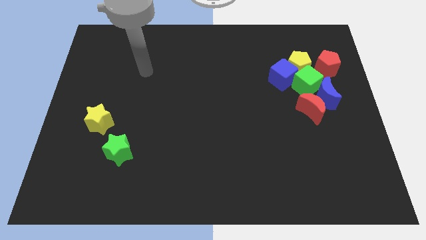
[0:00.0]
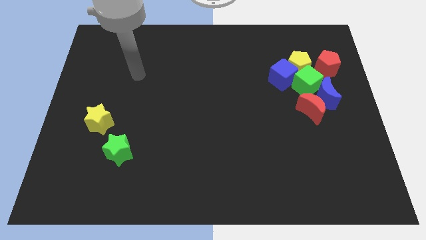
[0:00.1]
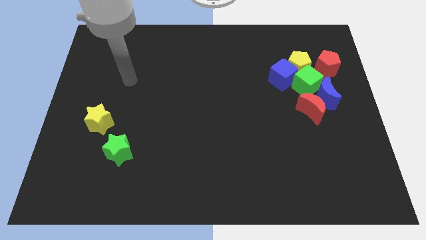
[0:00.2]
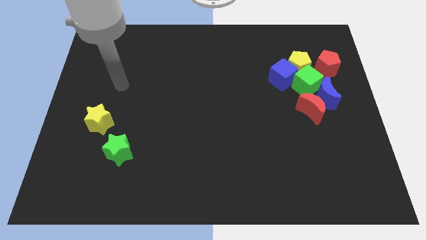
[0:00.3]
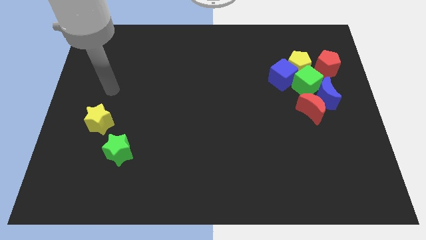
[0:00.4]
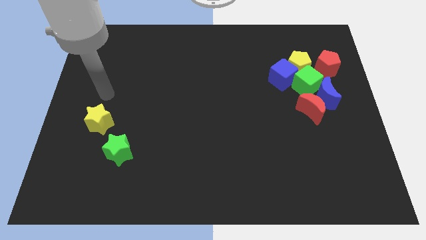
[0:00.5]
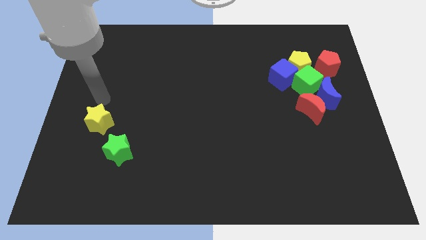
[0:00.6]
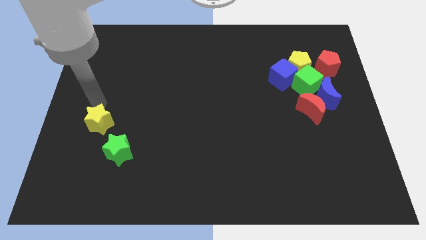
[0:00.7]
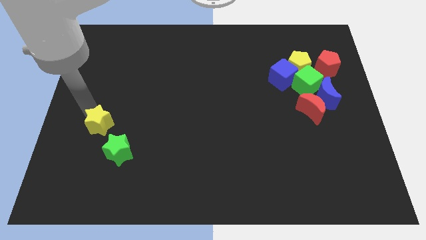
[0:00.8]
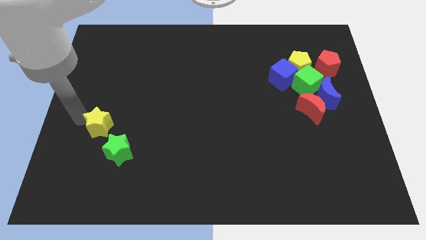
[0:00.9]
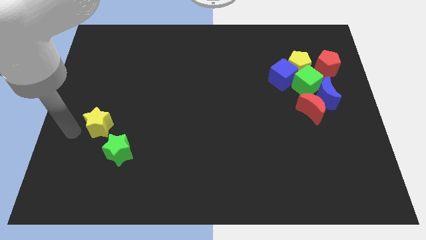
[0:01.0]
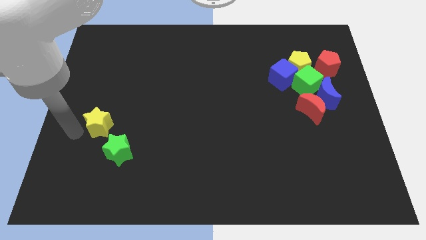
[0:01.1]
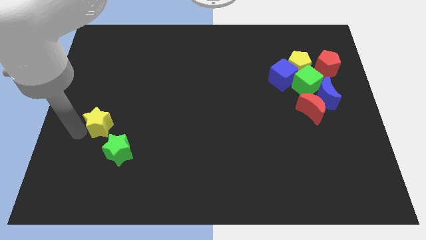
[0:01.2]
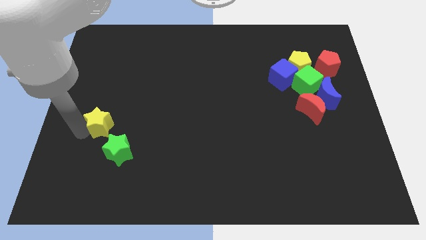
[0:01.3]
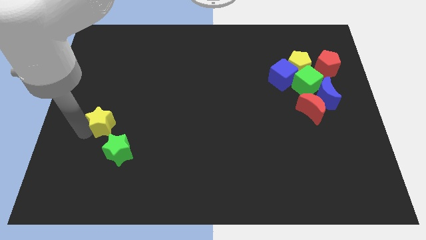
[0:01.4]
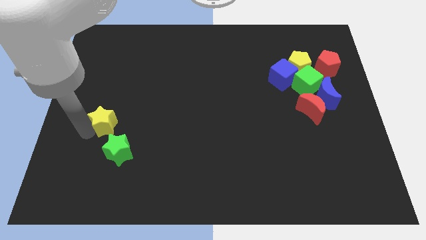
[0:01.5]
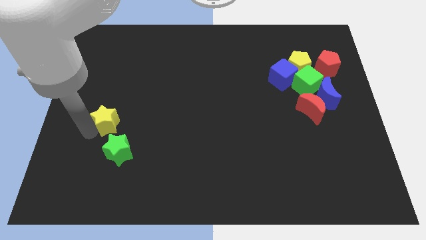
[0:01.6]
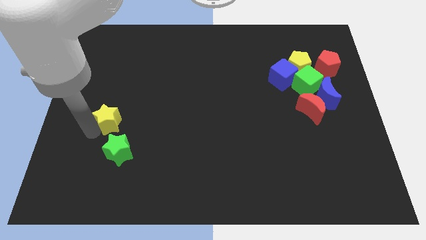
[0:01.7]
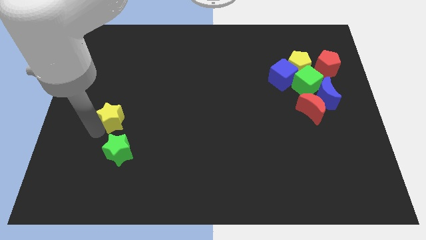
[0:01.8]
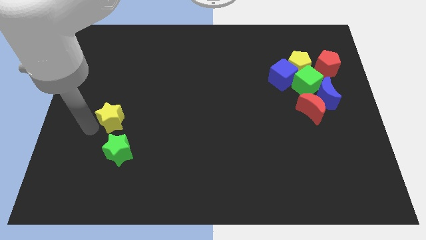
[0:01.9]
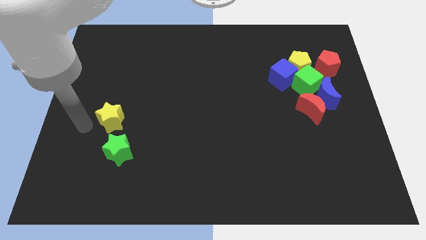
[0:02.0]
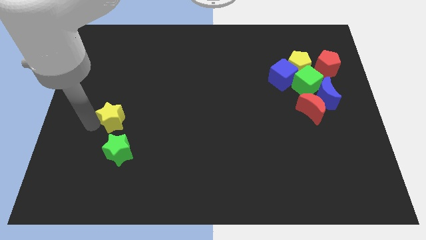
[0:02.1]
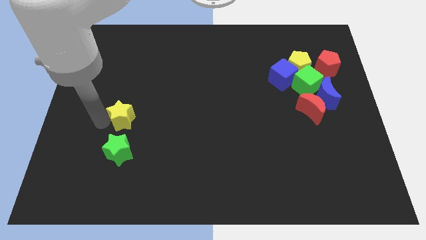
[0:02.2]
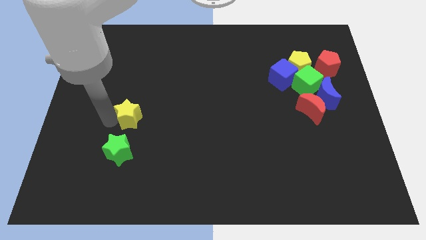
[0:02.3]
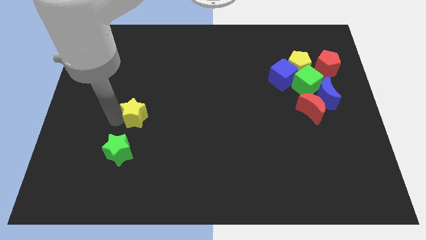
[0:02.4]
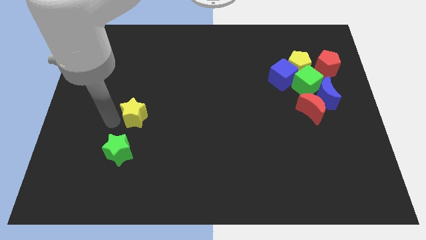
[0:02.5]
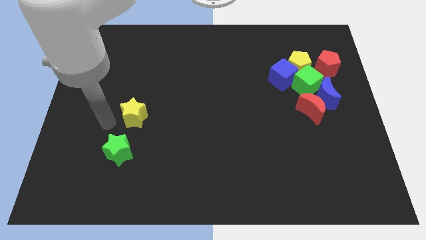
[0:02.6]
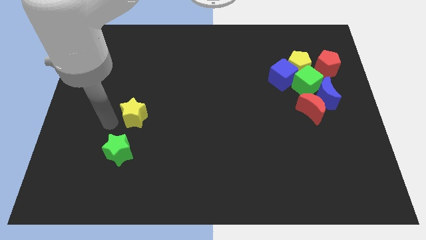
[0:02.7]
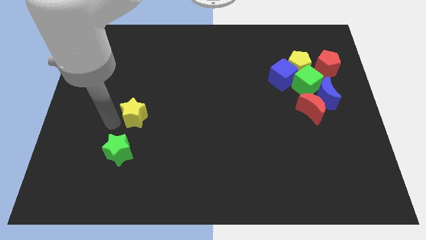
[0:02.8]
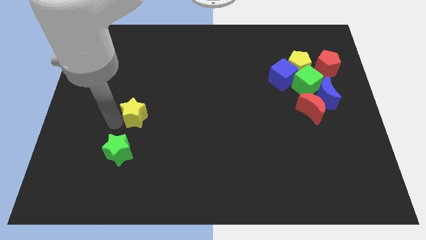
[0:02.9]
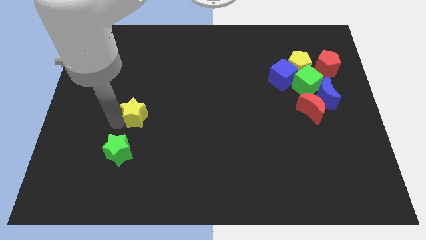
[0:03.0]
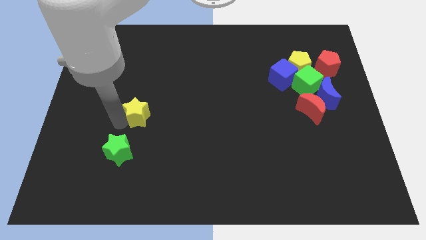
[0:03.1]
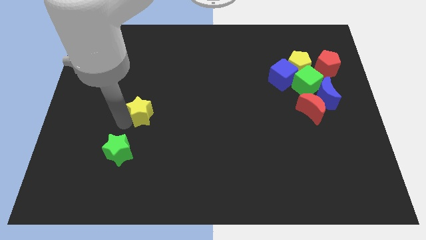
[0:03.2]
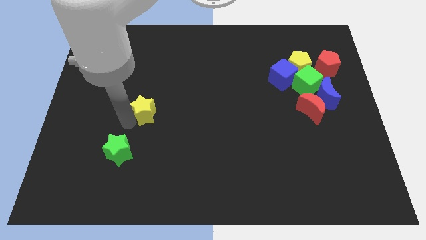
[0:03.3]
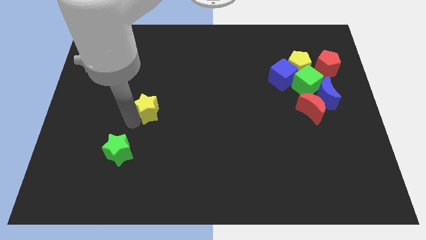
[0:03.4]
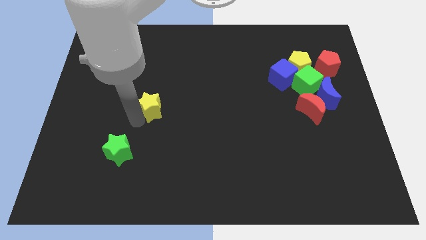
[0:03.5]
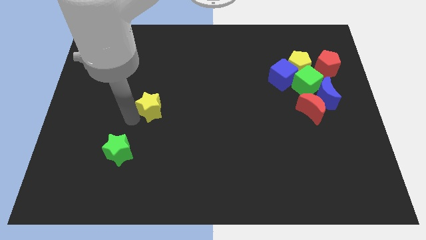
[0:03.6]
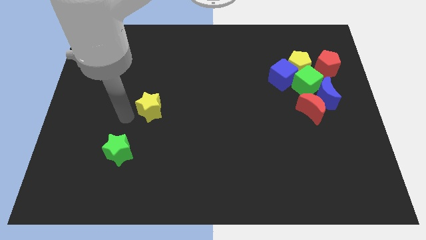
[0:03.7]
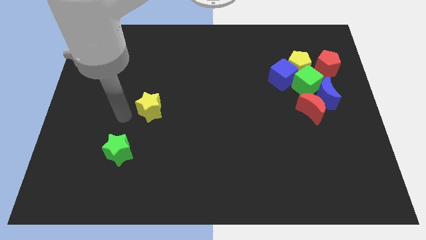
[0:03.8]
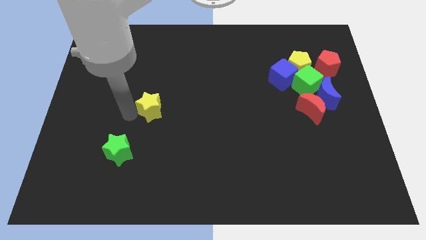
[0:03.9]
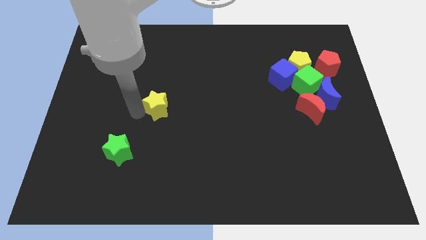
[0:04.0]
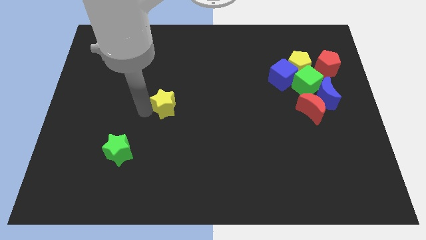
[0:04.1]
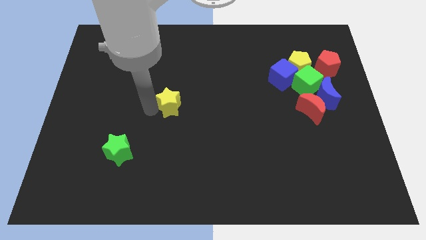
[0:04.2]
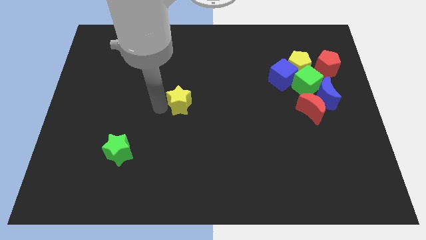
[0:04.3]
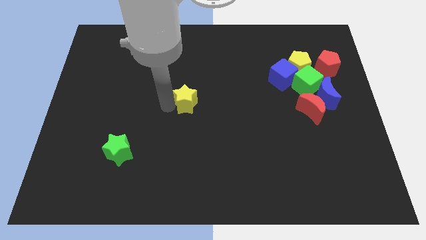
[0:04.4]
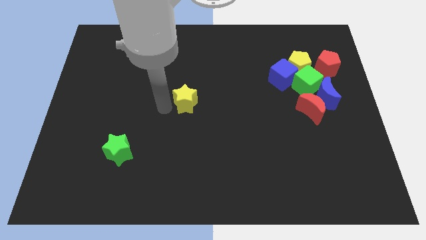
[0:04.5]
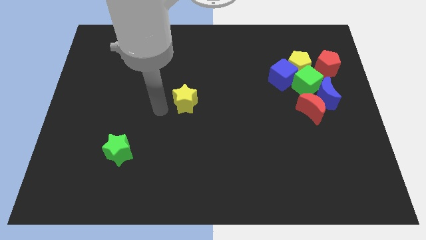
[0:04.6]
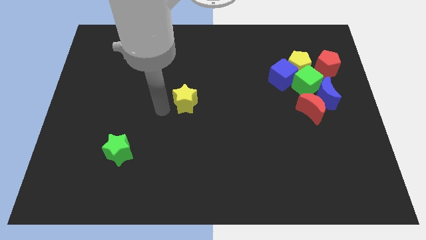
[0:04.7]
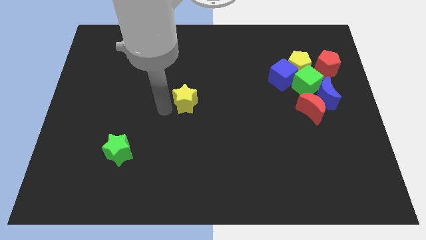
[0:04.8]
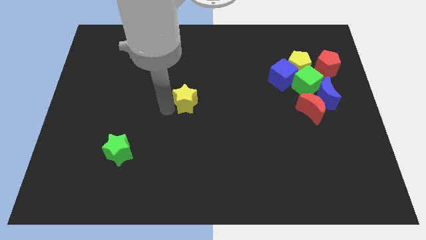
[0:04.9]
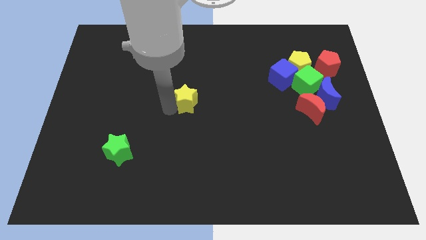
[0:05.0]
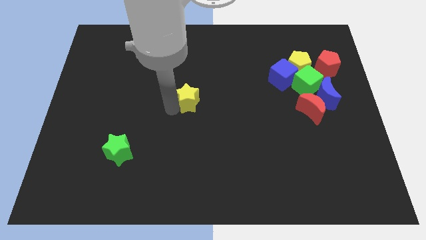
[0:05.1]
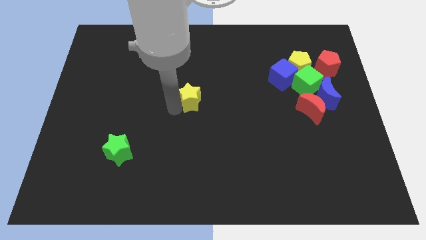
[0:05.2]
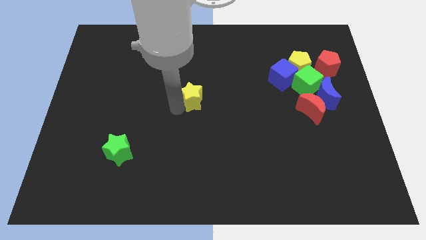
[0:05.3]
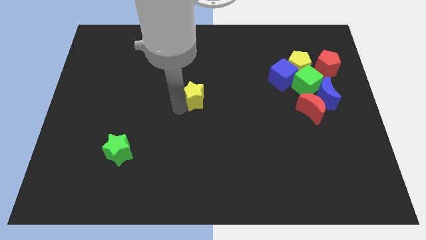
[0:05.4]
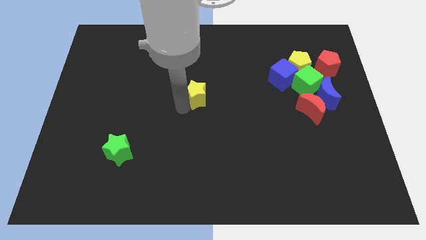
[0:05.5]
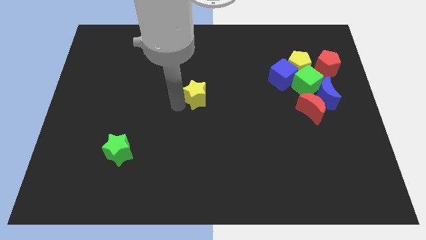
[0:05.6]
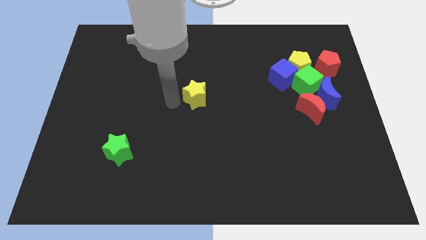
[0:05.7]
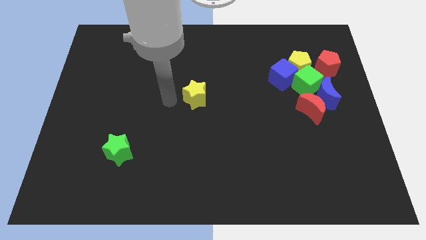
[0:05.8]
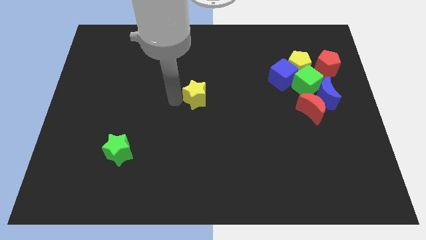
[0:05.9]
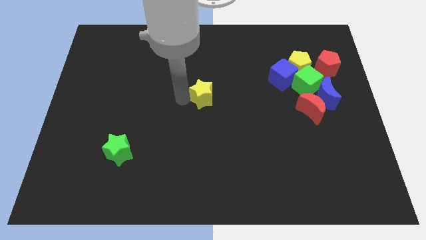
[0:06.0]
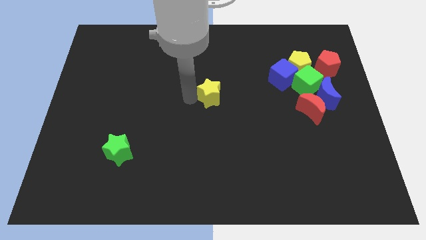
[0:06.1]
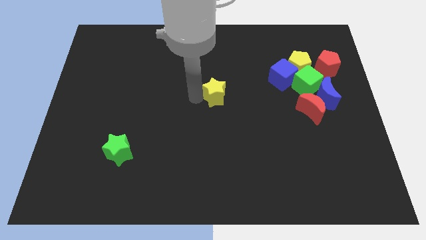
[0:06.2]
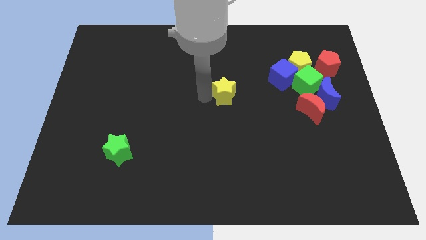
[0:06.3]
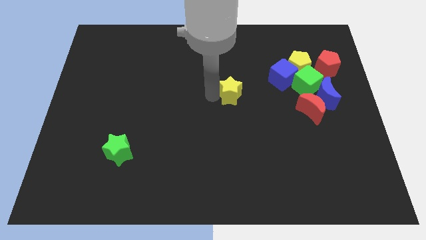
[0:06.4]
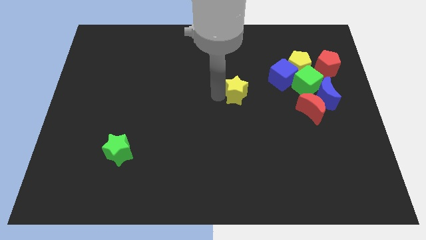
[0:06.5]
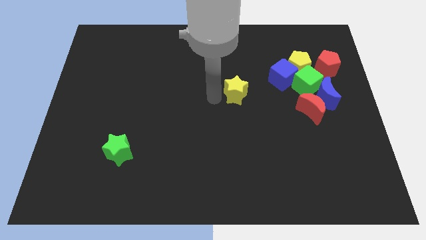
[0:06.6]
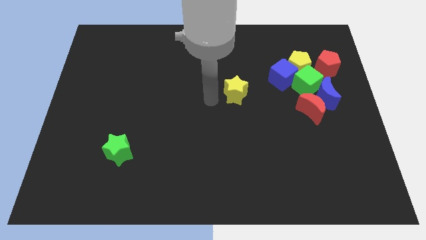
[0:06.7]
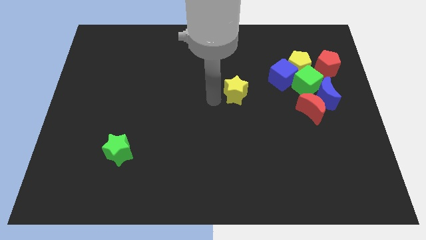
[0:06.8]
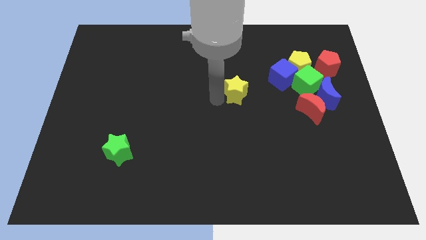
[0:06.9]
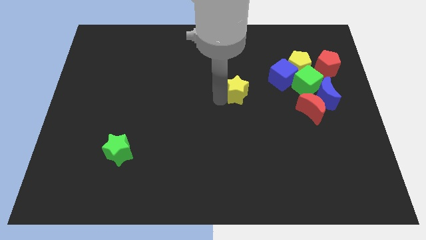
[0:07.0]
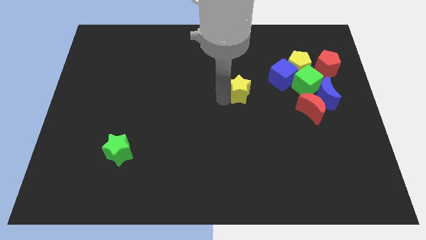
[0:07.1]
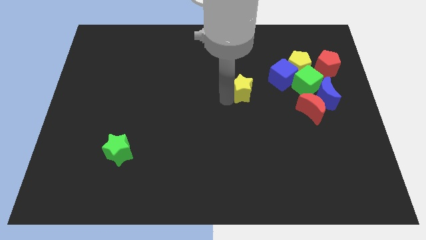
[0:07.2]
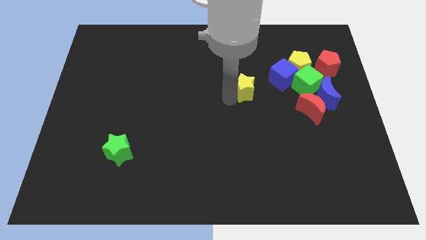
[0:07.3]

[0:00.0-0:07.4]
move the yellow star to the left of the green cube
